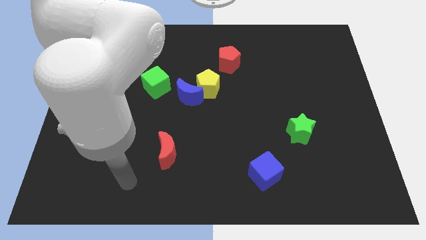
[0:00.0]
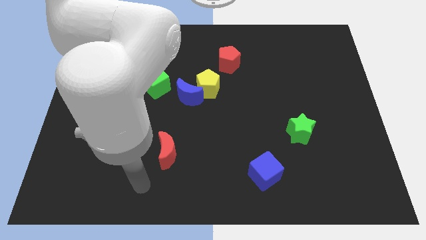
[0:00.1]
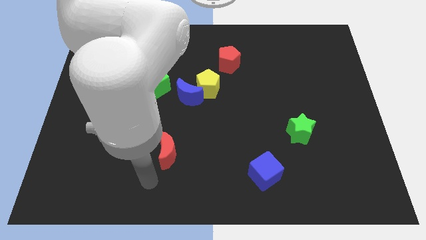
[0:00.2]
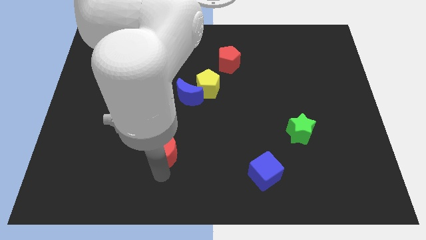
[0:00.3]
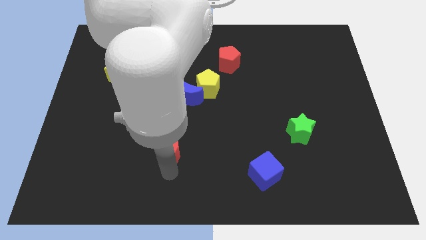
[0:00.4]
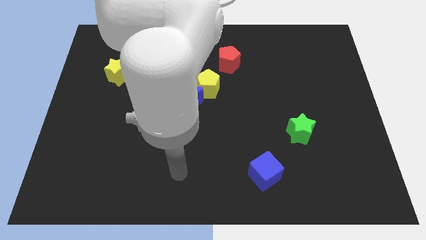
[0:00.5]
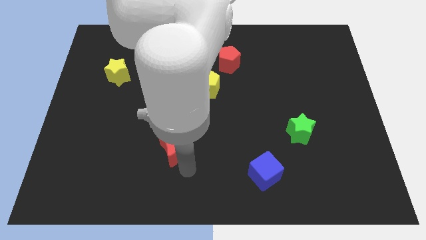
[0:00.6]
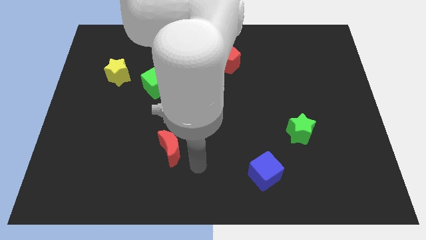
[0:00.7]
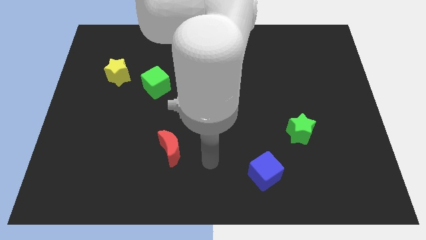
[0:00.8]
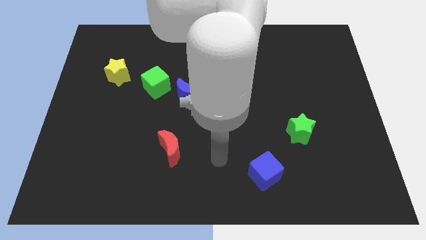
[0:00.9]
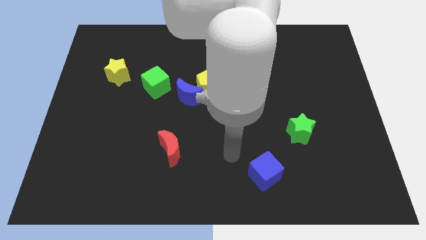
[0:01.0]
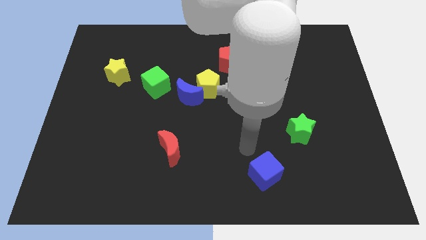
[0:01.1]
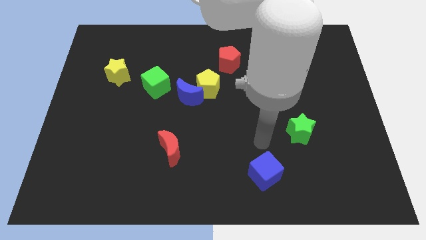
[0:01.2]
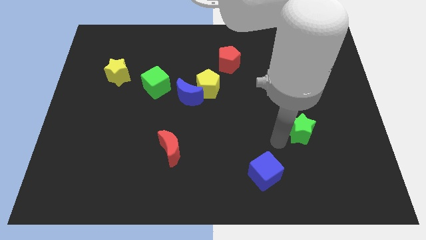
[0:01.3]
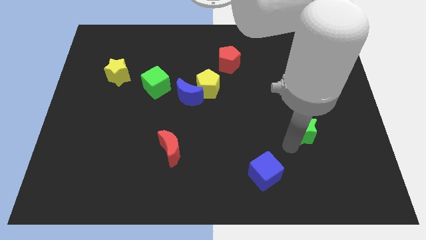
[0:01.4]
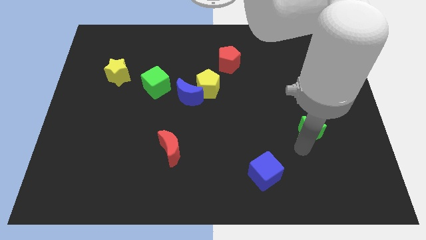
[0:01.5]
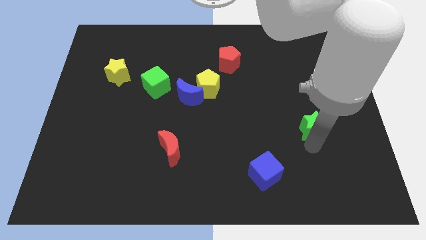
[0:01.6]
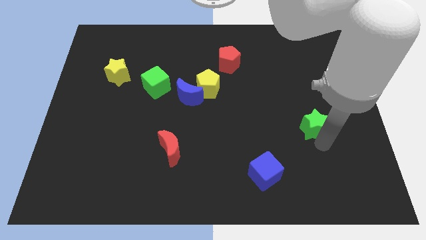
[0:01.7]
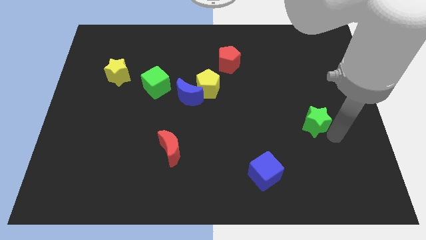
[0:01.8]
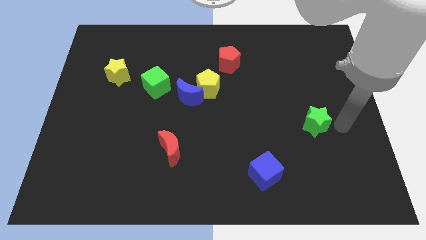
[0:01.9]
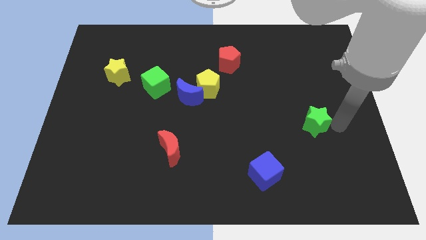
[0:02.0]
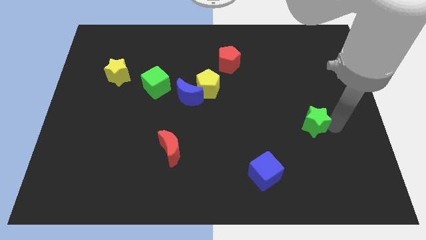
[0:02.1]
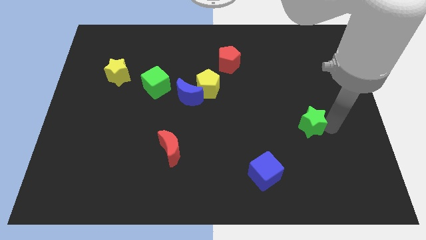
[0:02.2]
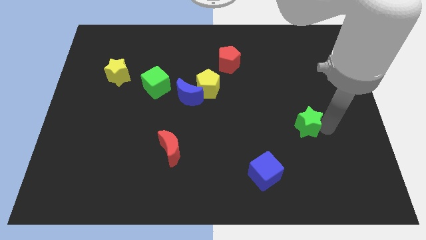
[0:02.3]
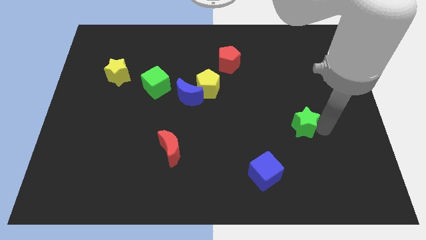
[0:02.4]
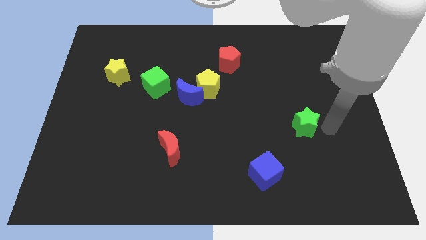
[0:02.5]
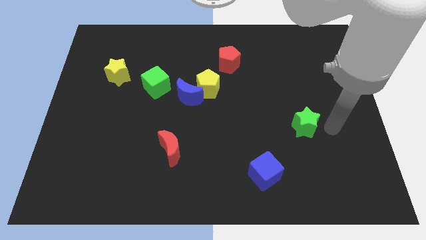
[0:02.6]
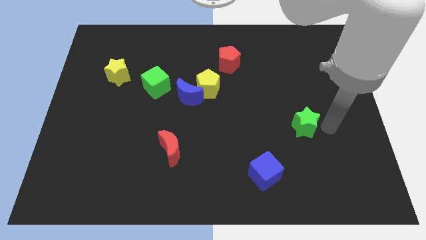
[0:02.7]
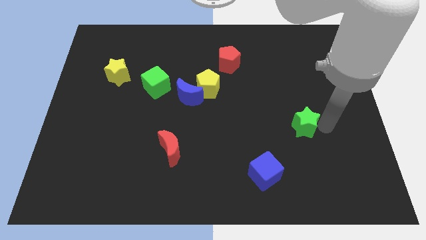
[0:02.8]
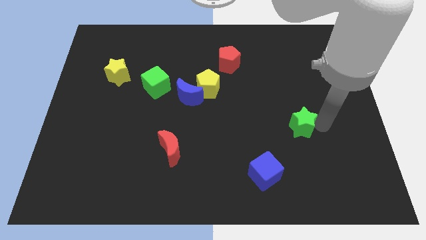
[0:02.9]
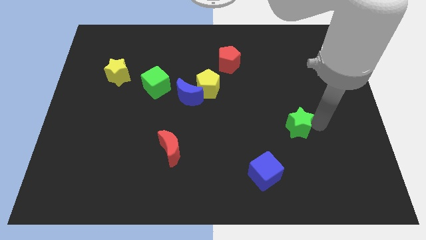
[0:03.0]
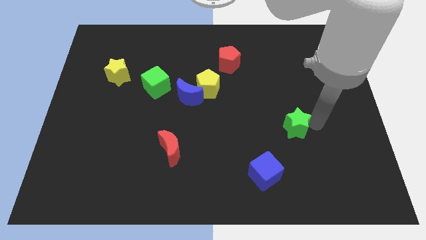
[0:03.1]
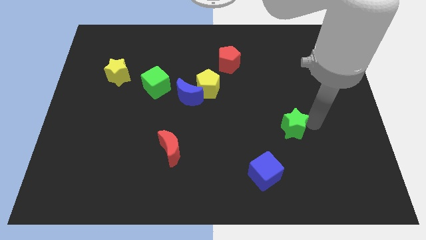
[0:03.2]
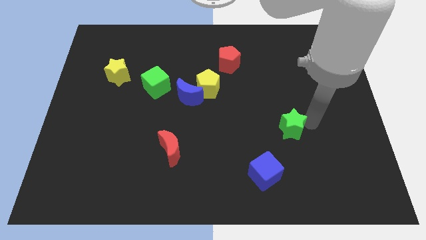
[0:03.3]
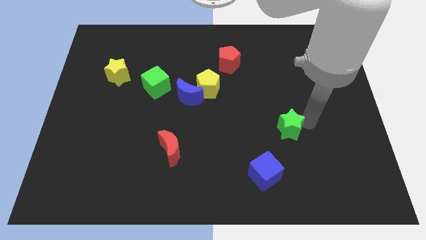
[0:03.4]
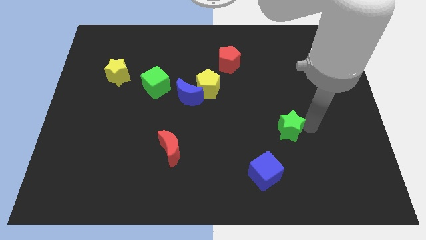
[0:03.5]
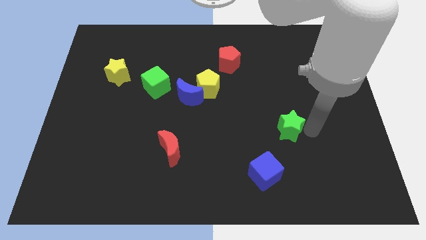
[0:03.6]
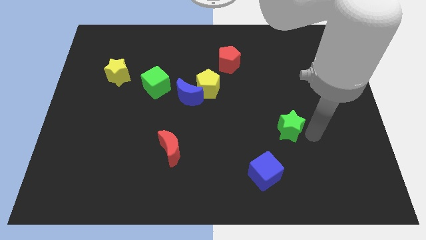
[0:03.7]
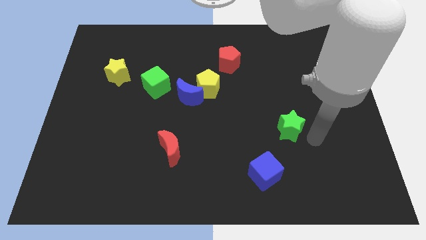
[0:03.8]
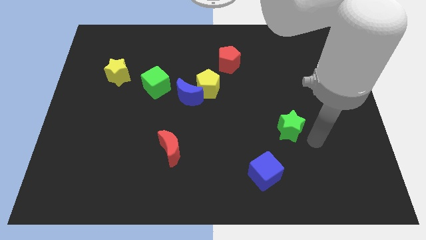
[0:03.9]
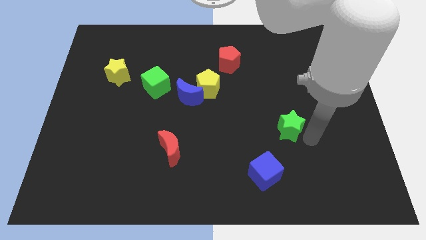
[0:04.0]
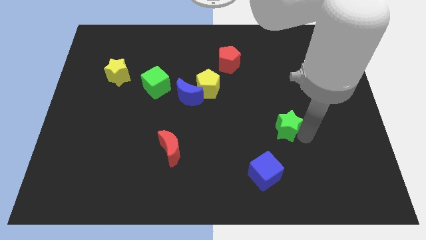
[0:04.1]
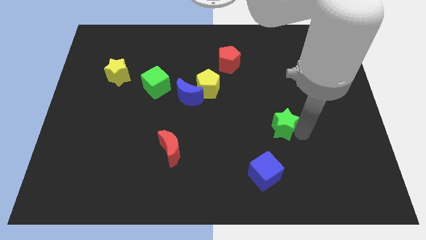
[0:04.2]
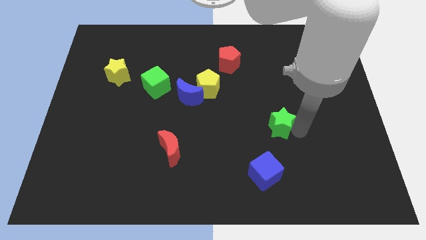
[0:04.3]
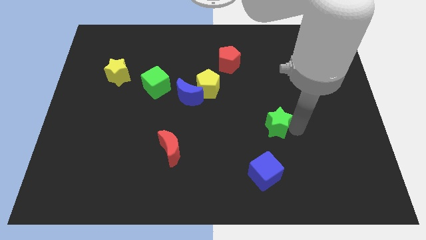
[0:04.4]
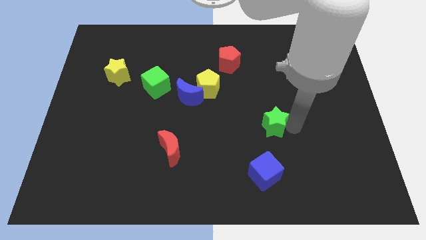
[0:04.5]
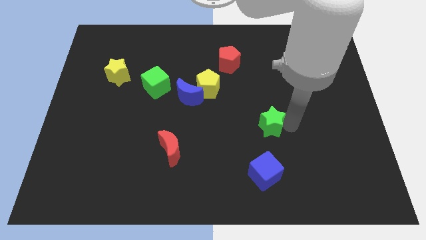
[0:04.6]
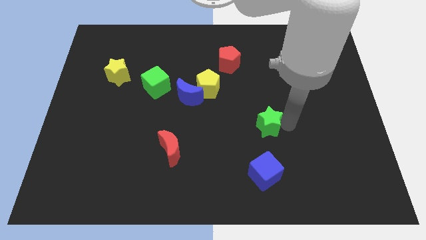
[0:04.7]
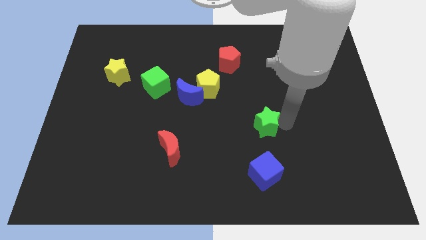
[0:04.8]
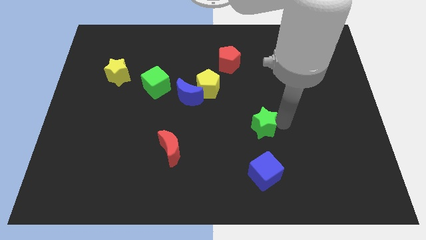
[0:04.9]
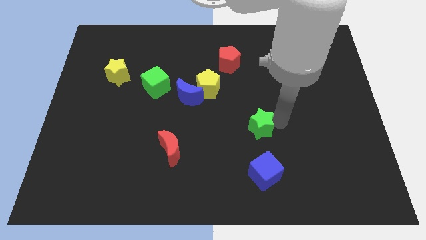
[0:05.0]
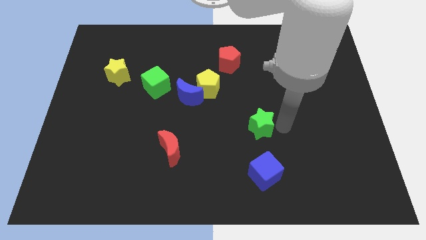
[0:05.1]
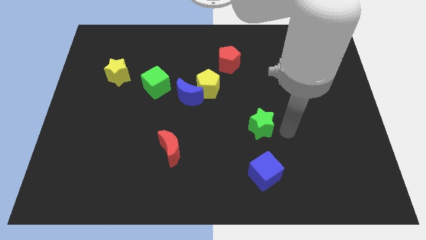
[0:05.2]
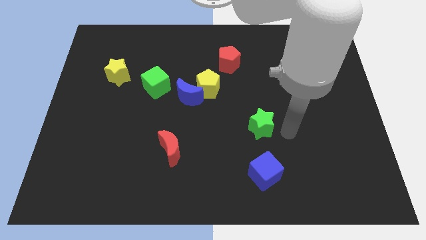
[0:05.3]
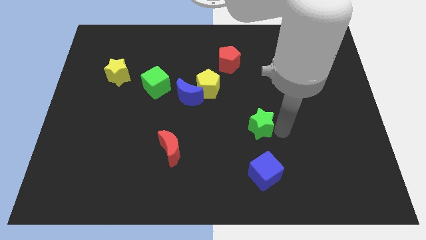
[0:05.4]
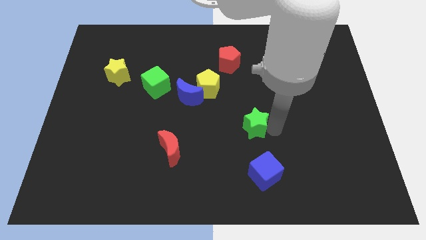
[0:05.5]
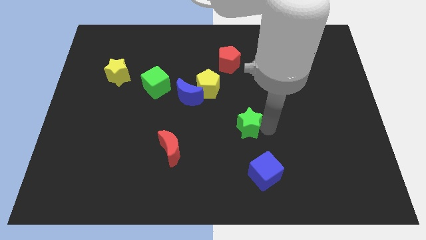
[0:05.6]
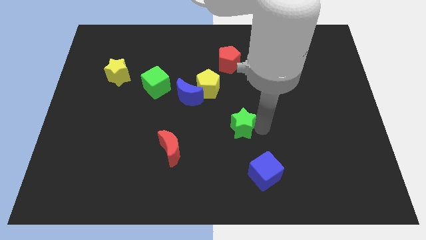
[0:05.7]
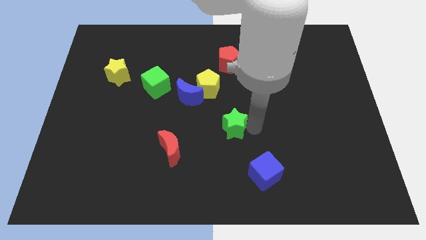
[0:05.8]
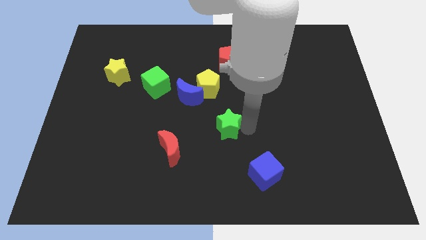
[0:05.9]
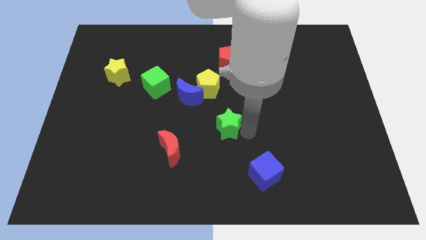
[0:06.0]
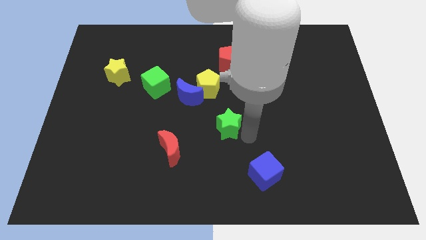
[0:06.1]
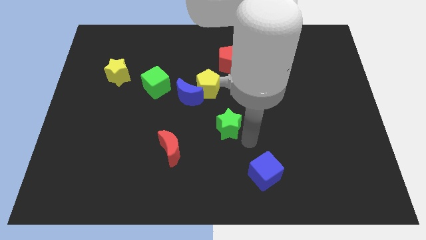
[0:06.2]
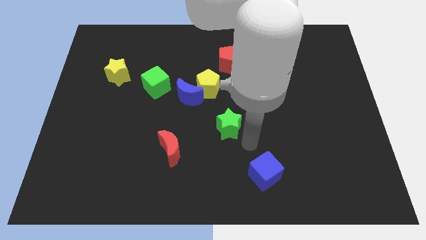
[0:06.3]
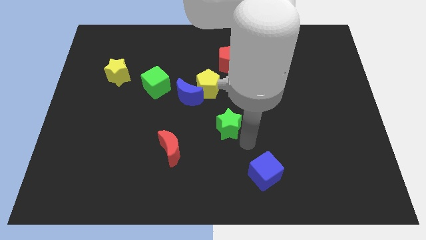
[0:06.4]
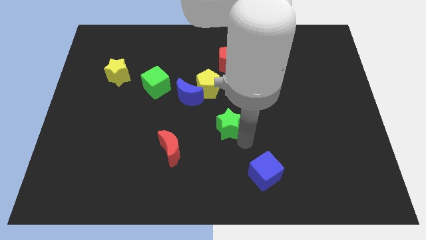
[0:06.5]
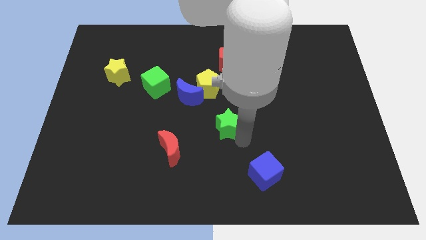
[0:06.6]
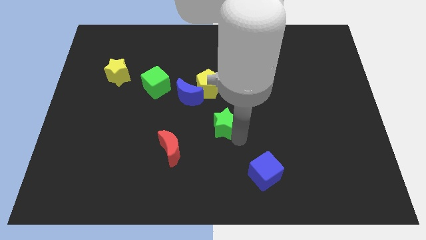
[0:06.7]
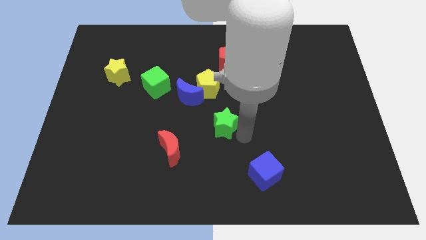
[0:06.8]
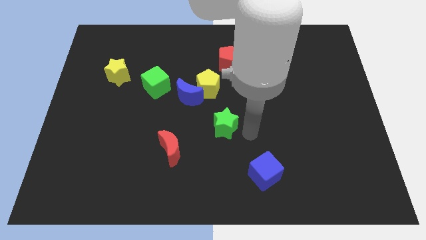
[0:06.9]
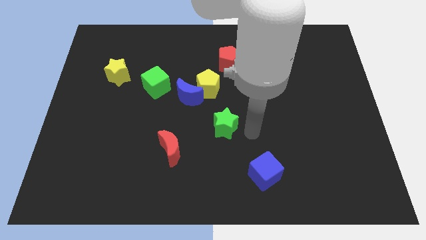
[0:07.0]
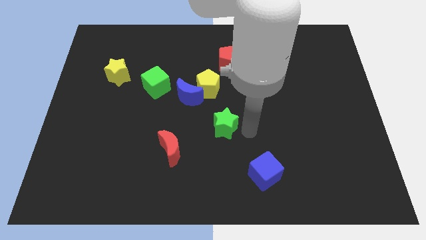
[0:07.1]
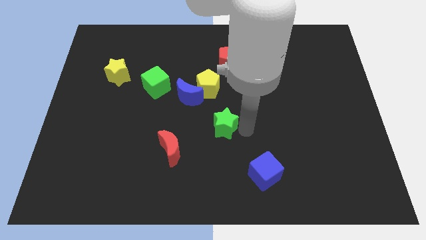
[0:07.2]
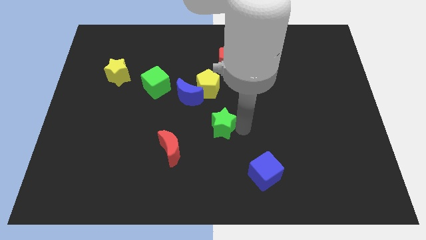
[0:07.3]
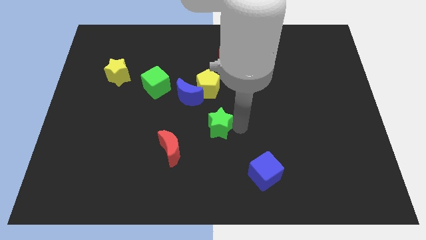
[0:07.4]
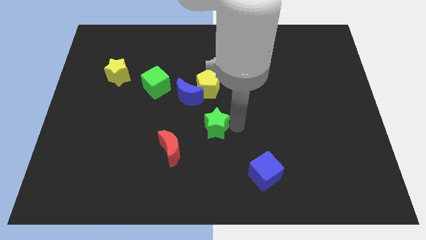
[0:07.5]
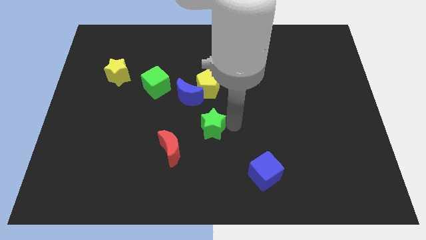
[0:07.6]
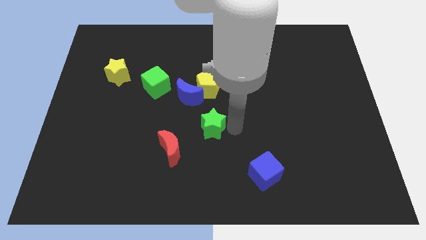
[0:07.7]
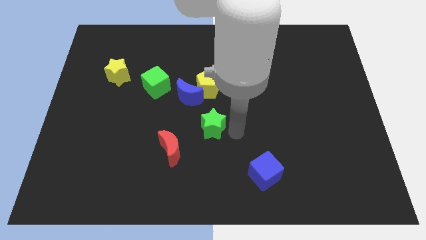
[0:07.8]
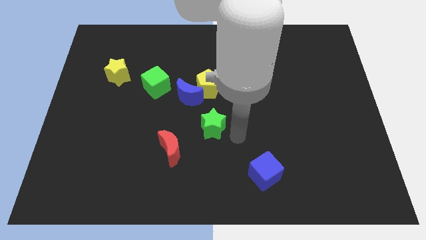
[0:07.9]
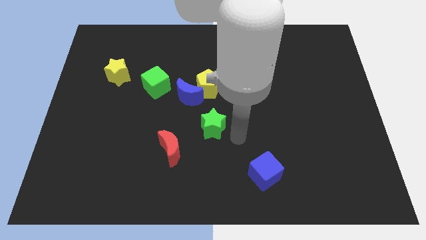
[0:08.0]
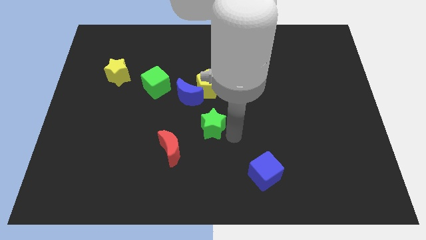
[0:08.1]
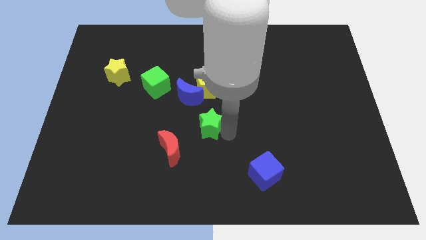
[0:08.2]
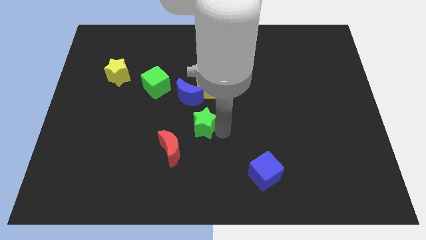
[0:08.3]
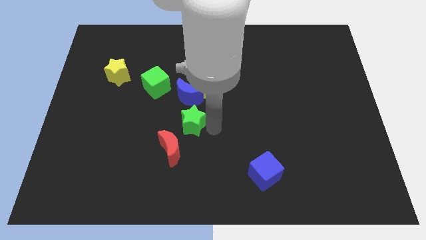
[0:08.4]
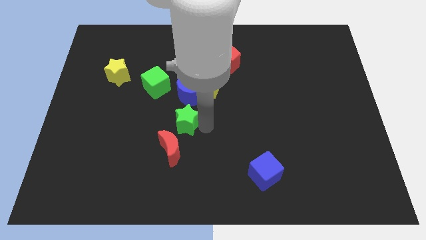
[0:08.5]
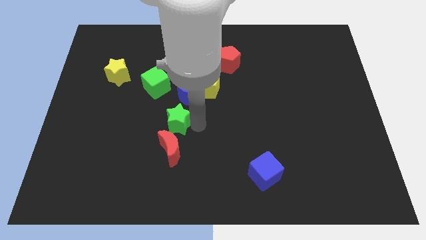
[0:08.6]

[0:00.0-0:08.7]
put the green star to the bottom left side of the blue moon
